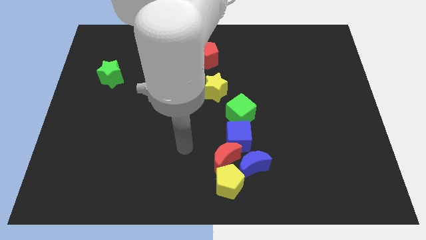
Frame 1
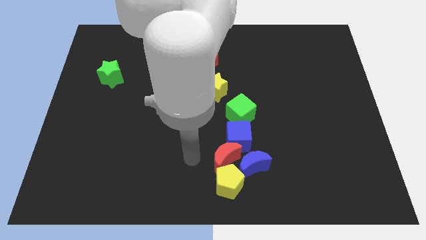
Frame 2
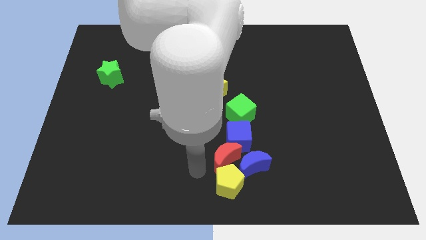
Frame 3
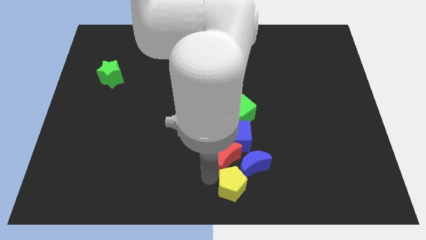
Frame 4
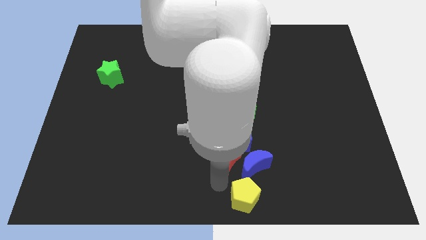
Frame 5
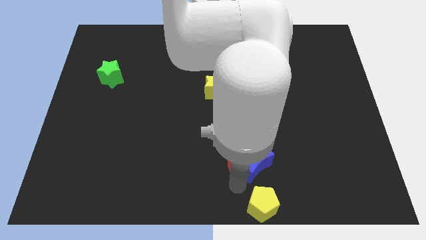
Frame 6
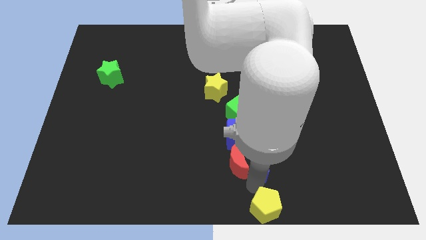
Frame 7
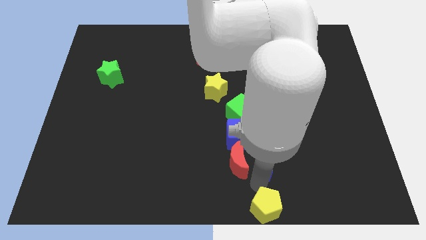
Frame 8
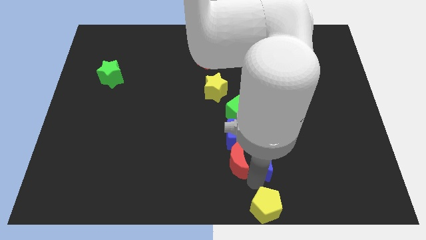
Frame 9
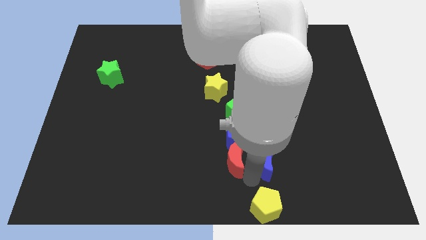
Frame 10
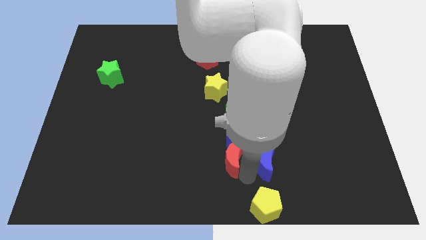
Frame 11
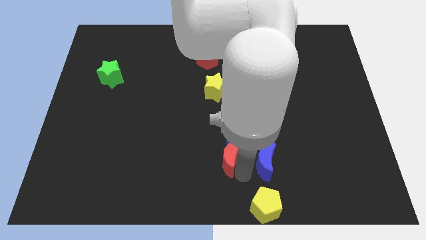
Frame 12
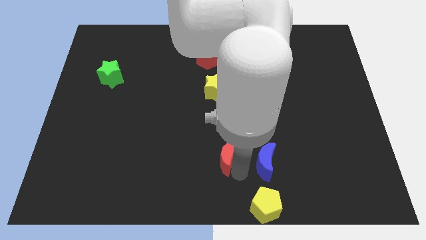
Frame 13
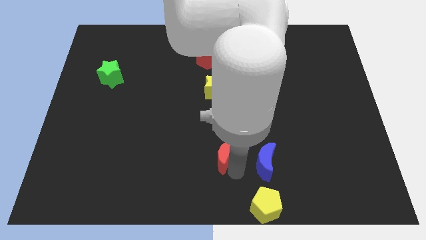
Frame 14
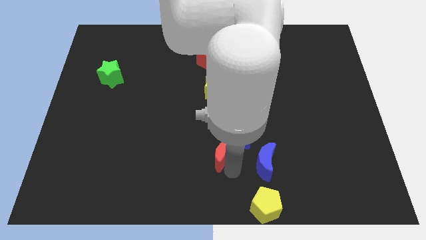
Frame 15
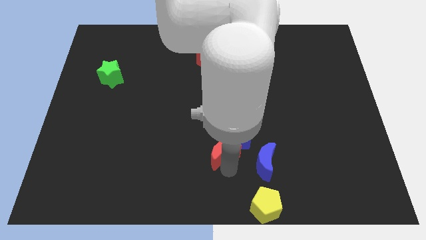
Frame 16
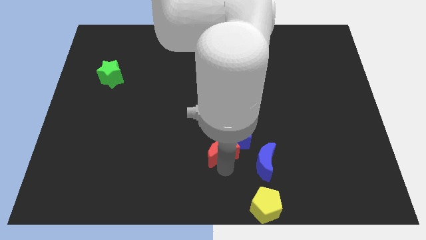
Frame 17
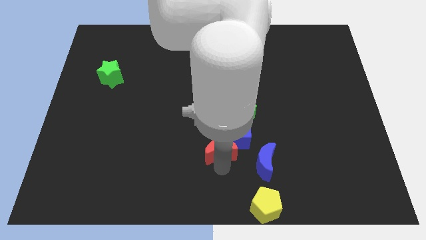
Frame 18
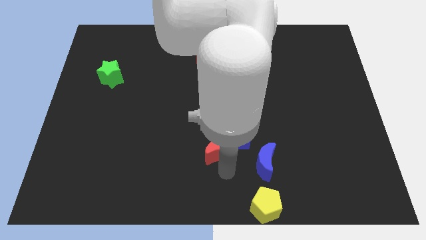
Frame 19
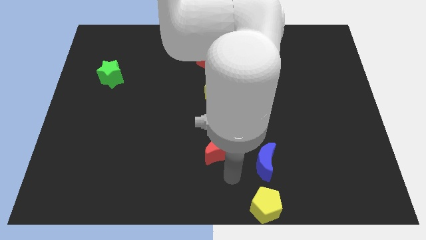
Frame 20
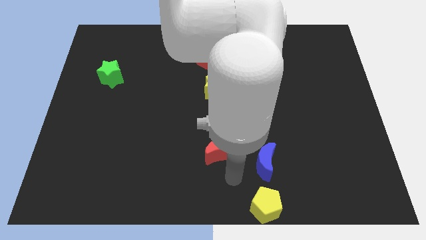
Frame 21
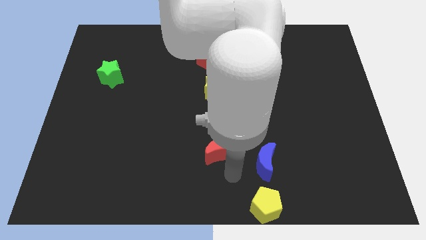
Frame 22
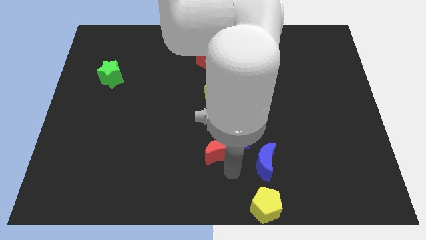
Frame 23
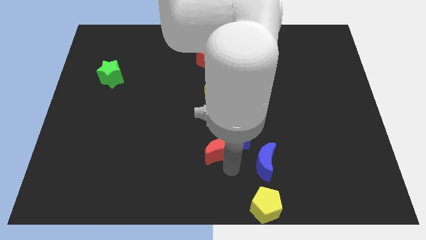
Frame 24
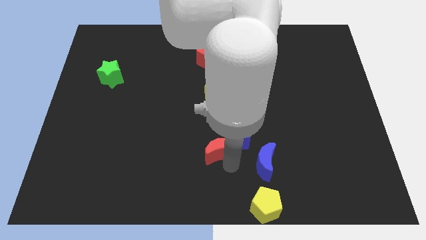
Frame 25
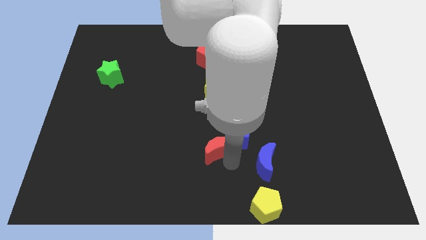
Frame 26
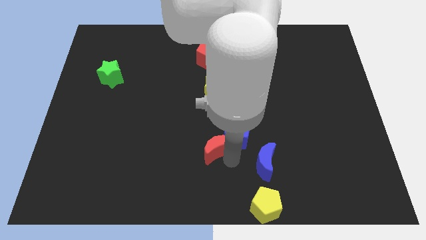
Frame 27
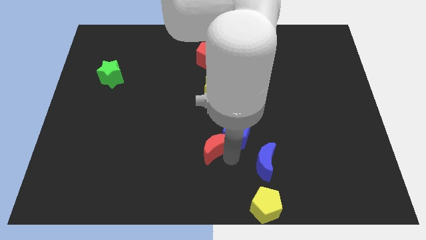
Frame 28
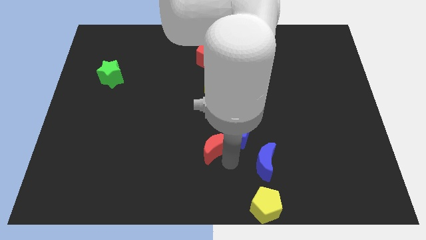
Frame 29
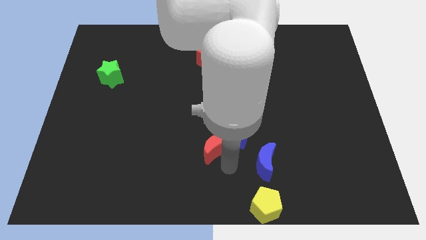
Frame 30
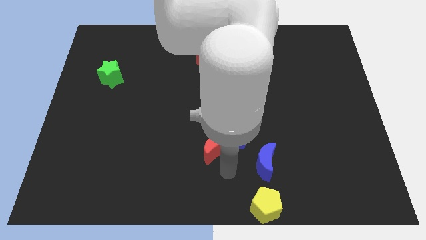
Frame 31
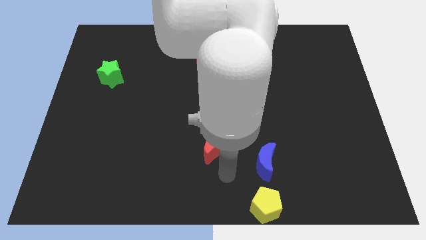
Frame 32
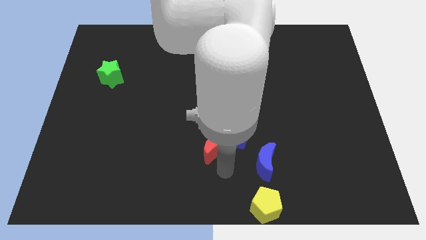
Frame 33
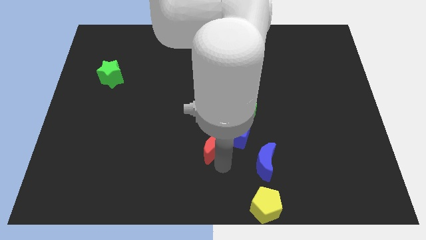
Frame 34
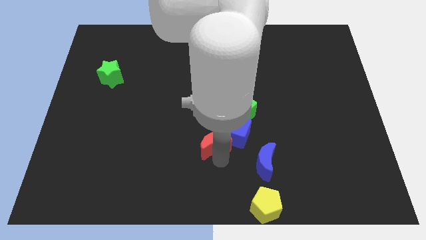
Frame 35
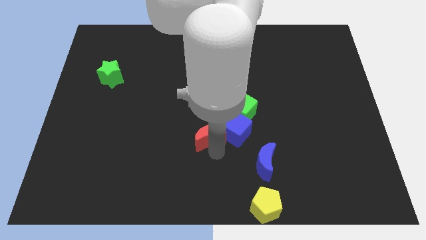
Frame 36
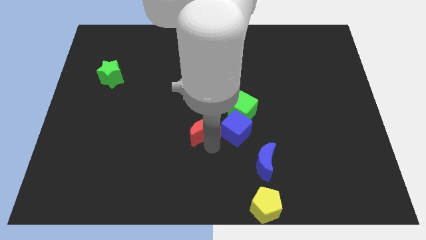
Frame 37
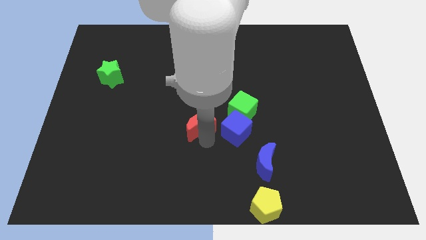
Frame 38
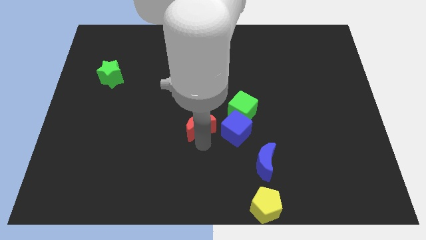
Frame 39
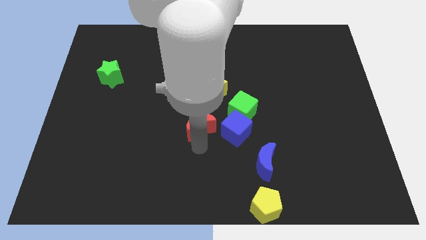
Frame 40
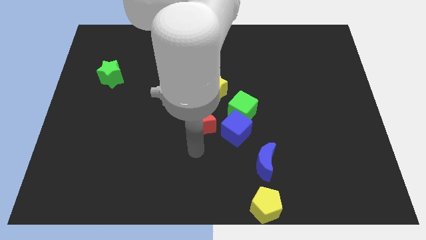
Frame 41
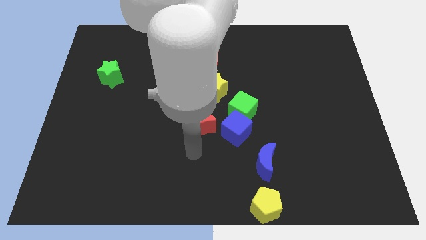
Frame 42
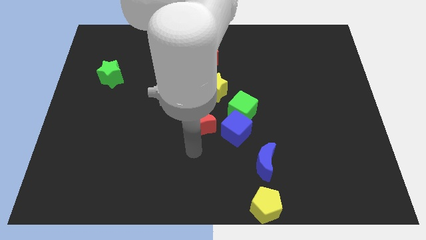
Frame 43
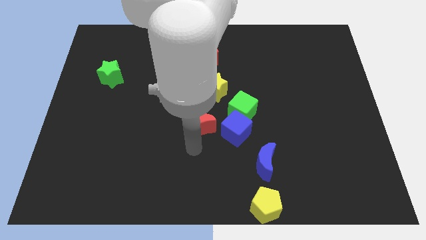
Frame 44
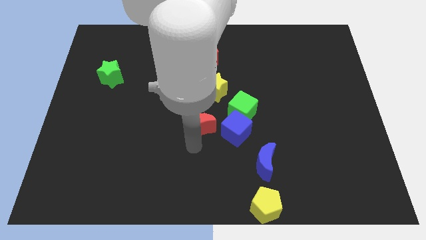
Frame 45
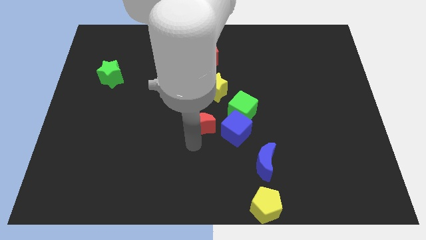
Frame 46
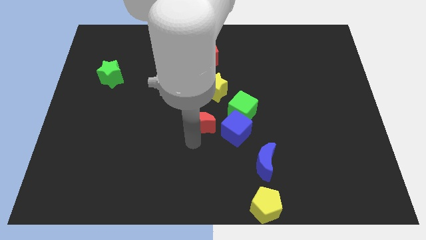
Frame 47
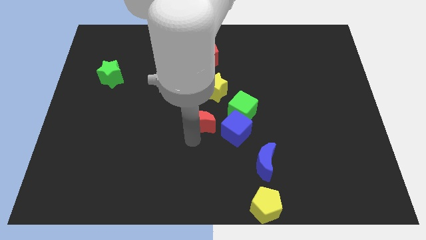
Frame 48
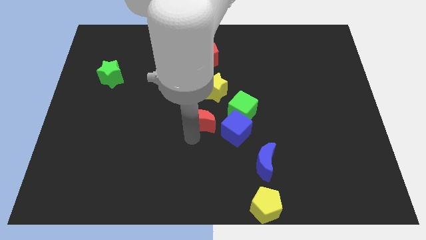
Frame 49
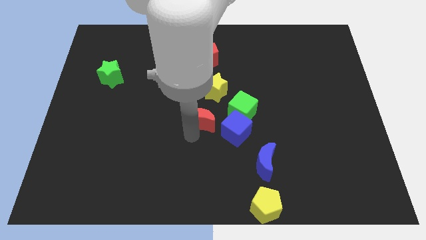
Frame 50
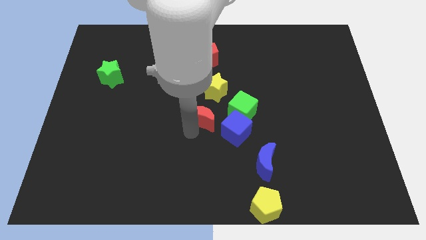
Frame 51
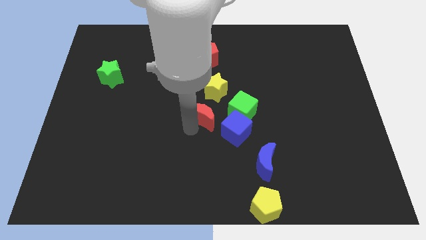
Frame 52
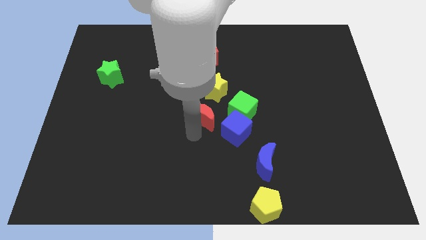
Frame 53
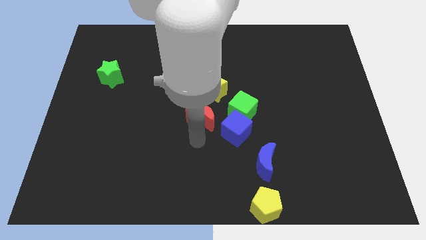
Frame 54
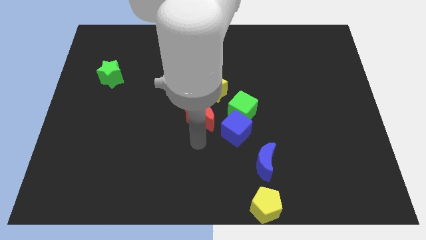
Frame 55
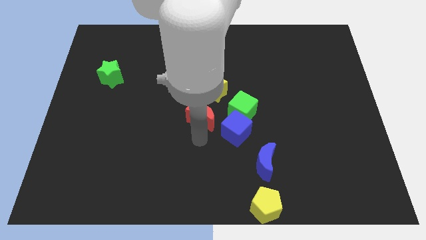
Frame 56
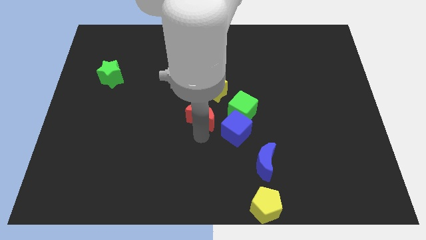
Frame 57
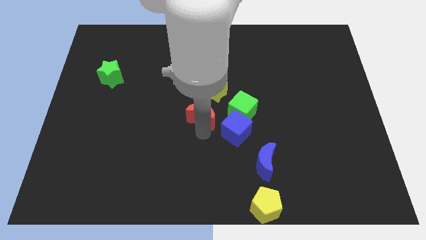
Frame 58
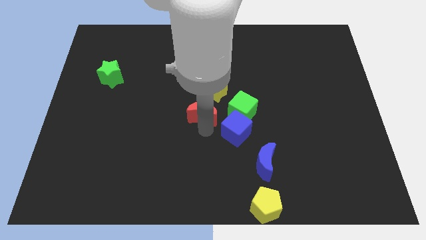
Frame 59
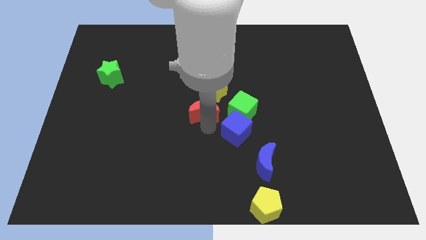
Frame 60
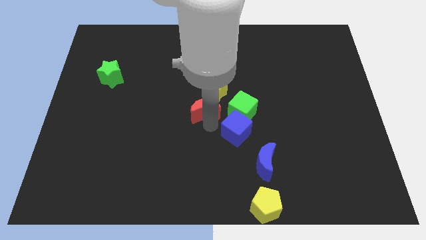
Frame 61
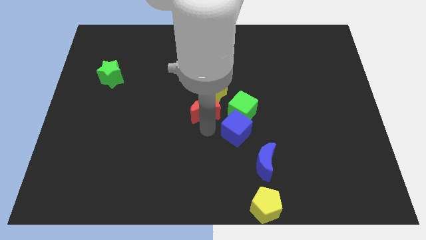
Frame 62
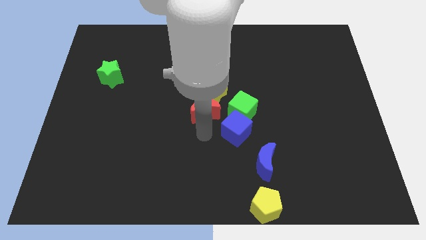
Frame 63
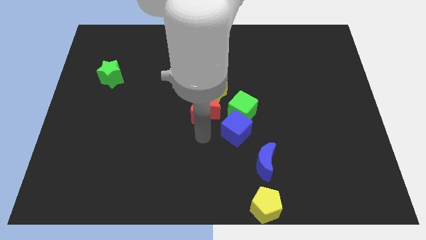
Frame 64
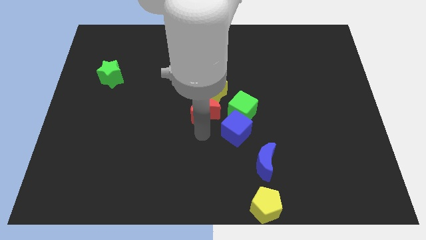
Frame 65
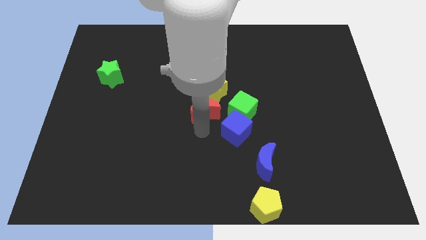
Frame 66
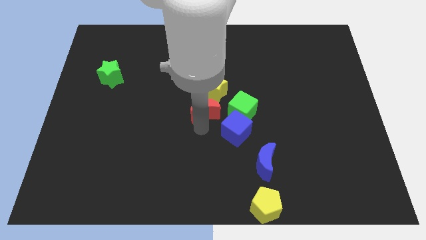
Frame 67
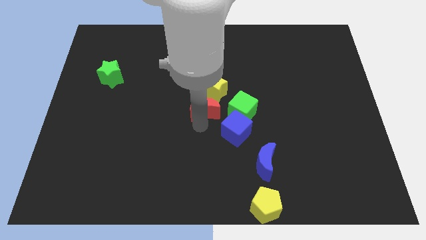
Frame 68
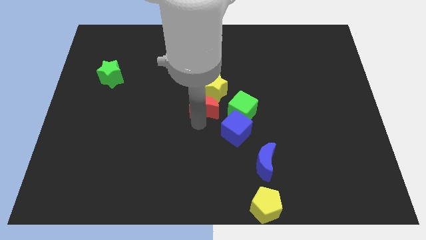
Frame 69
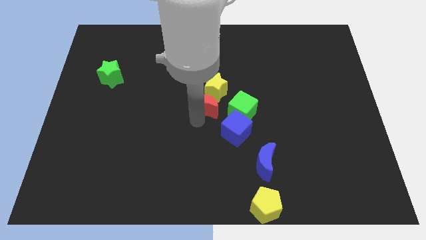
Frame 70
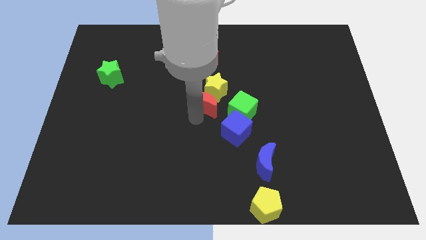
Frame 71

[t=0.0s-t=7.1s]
move the red moon to the bottom of the red pentagon
